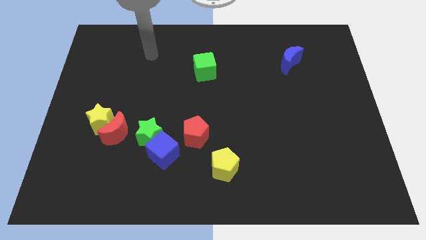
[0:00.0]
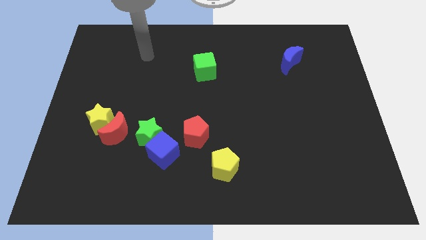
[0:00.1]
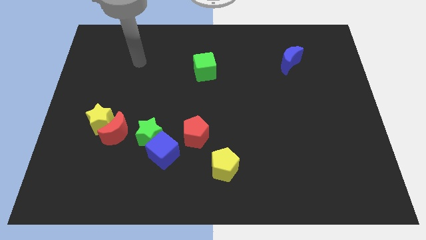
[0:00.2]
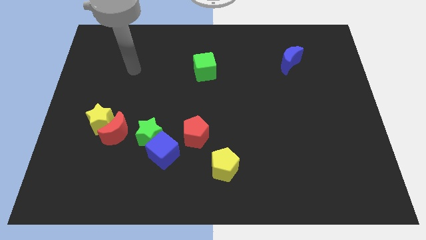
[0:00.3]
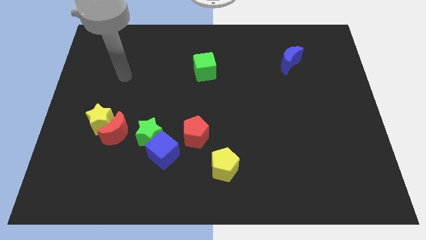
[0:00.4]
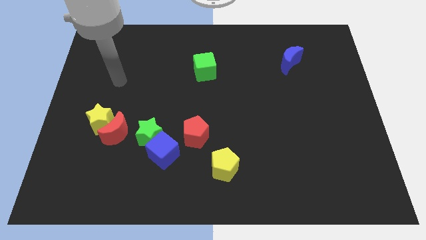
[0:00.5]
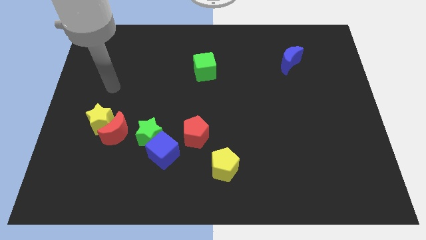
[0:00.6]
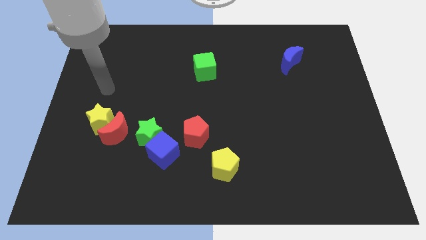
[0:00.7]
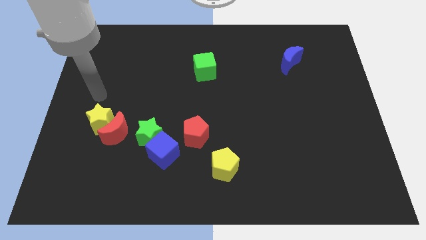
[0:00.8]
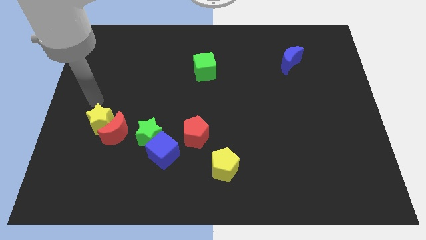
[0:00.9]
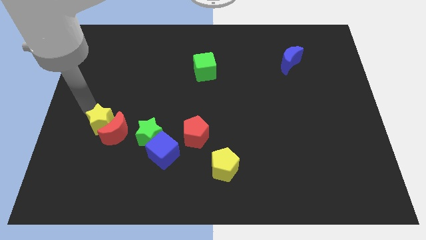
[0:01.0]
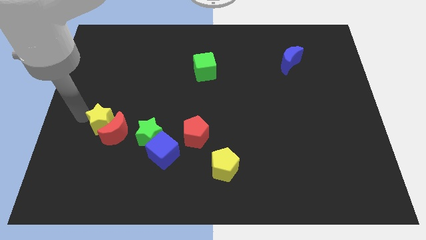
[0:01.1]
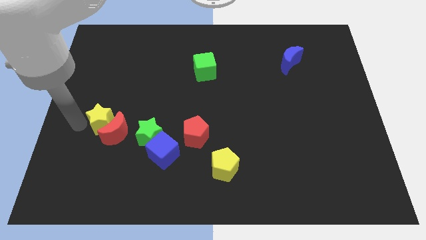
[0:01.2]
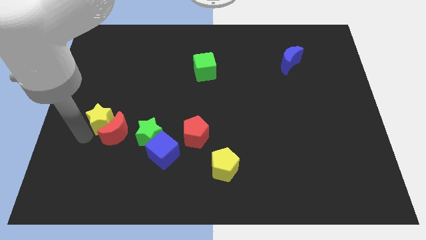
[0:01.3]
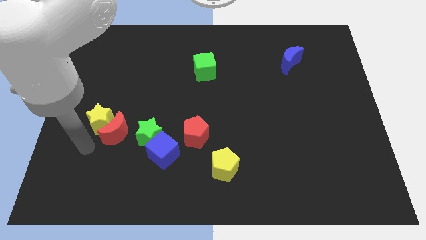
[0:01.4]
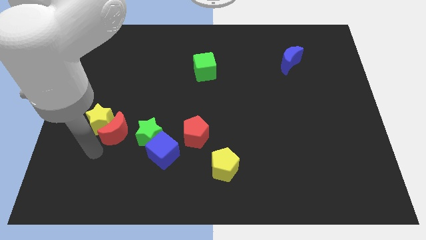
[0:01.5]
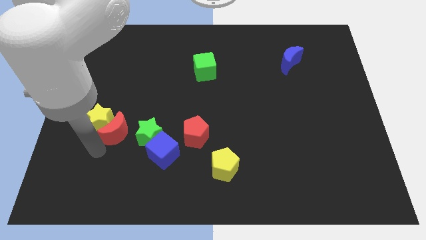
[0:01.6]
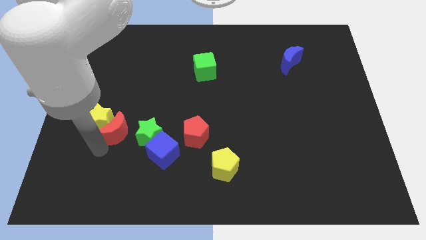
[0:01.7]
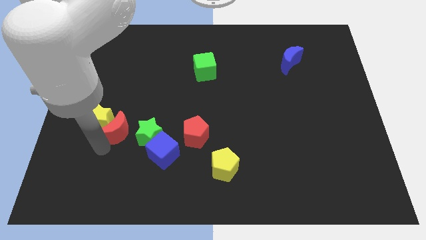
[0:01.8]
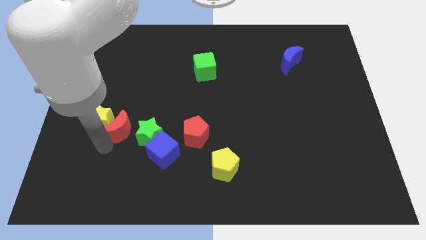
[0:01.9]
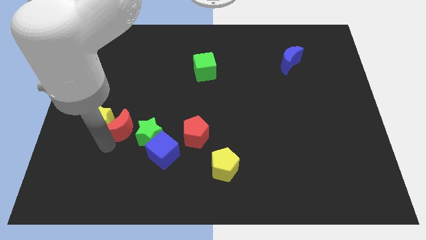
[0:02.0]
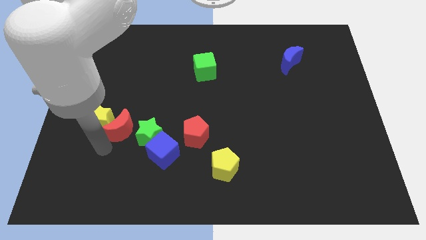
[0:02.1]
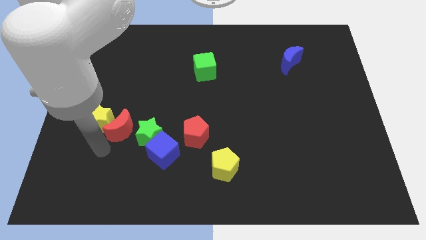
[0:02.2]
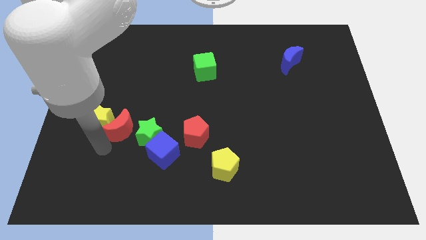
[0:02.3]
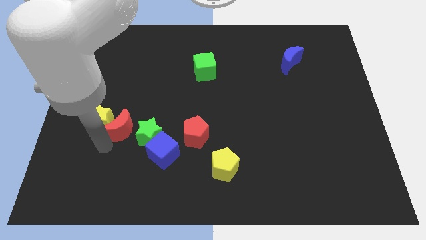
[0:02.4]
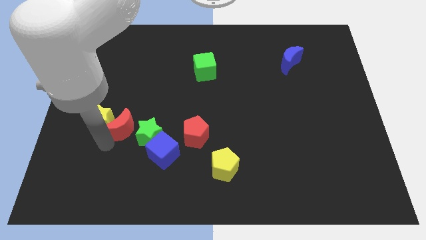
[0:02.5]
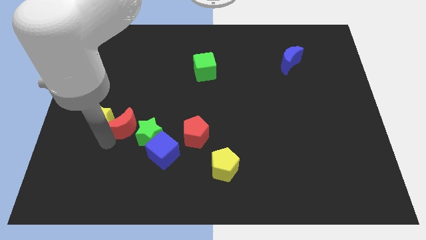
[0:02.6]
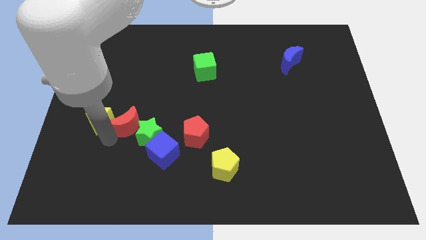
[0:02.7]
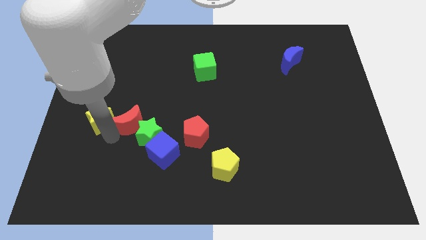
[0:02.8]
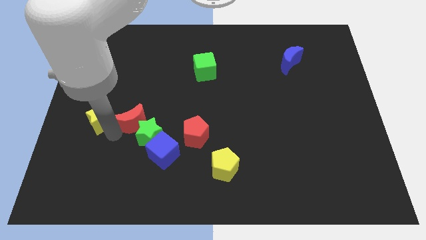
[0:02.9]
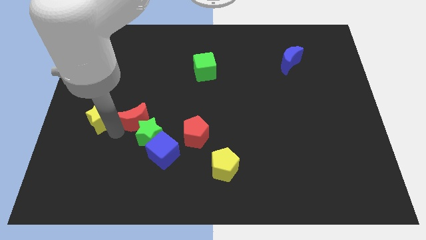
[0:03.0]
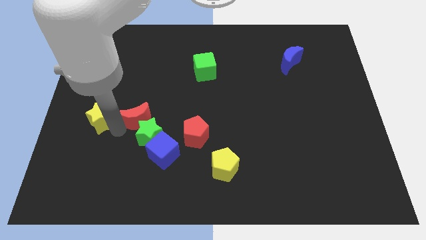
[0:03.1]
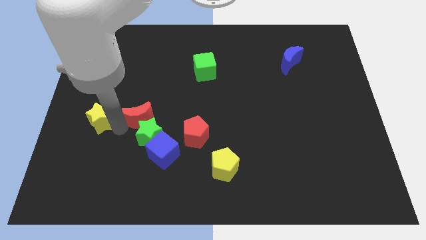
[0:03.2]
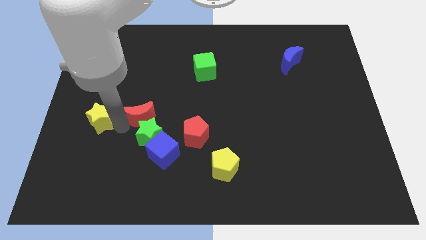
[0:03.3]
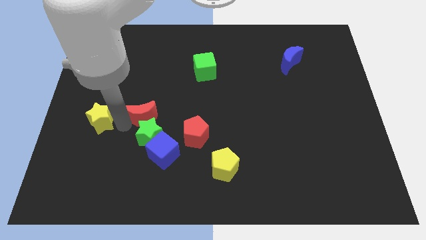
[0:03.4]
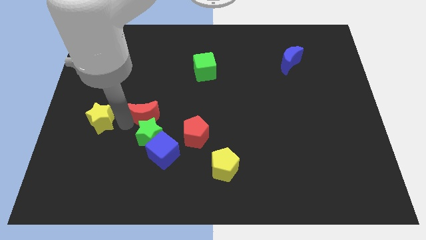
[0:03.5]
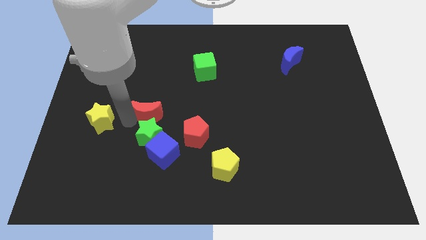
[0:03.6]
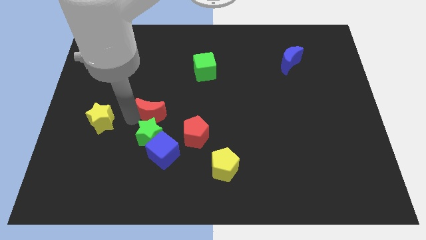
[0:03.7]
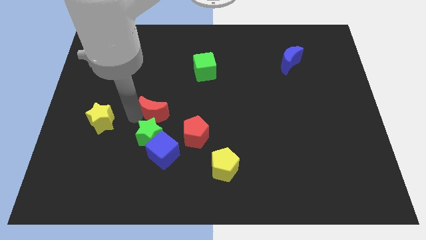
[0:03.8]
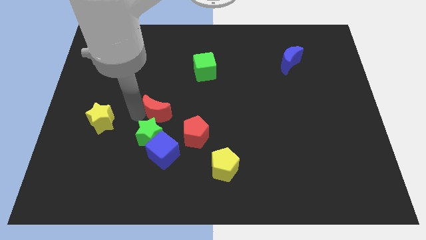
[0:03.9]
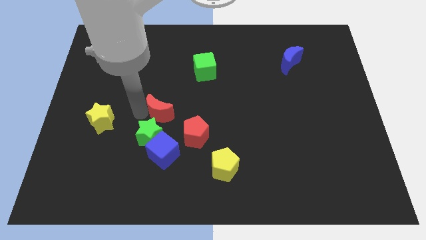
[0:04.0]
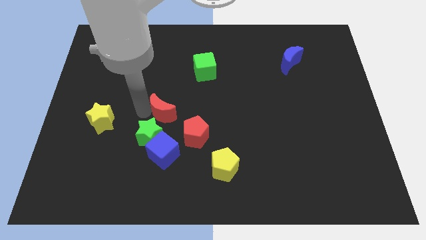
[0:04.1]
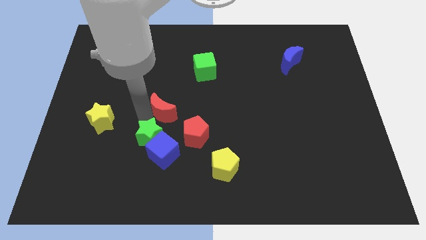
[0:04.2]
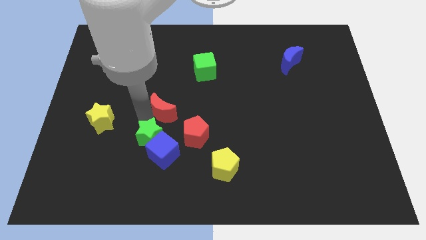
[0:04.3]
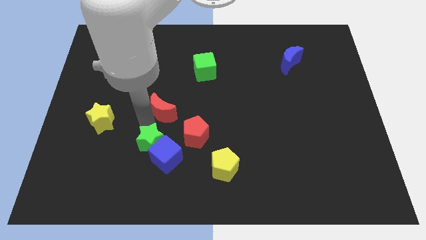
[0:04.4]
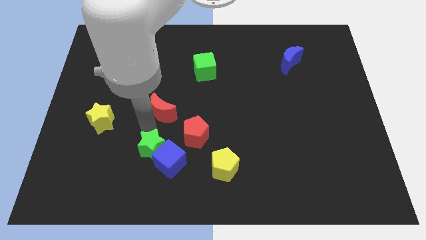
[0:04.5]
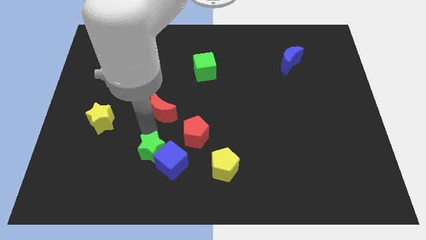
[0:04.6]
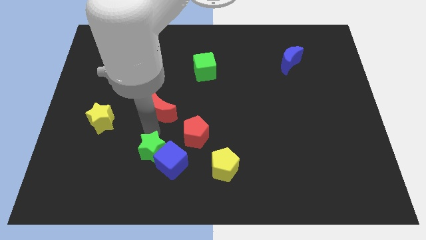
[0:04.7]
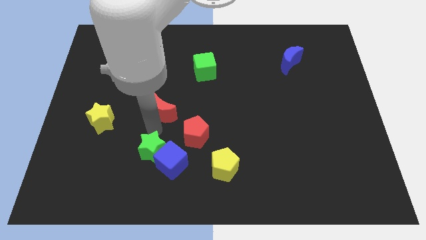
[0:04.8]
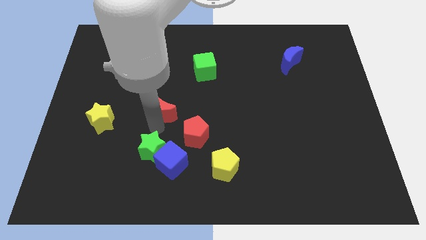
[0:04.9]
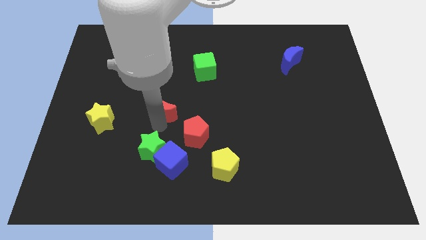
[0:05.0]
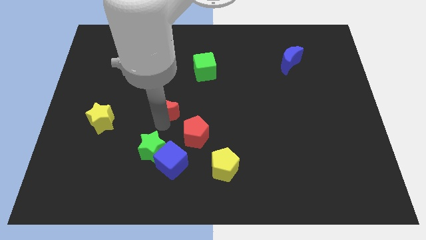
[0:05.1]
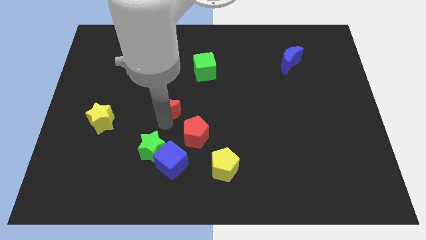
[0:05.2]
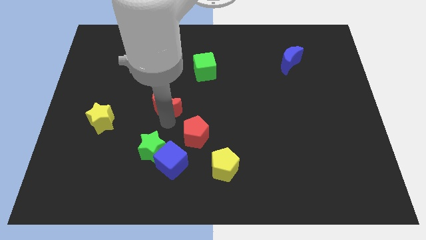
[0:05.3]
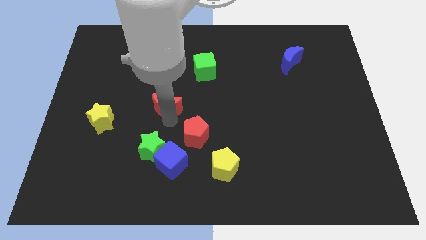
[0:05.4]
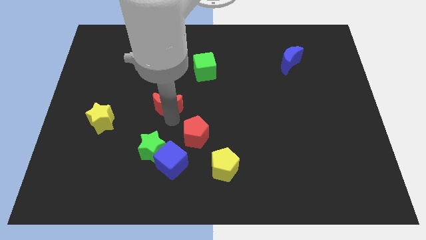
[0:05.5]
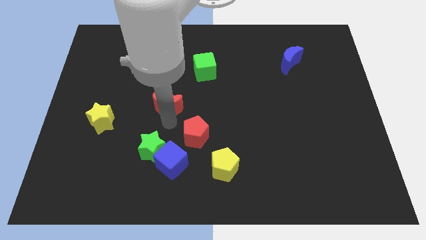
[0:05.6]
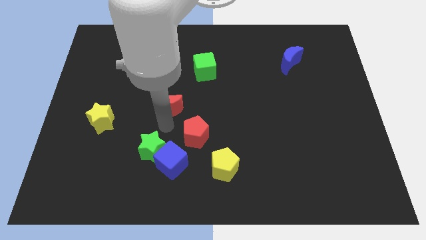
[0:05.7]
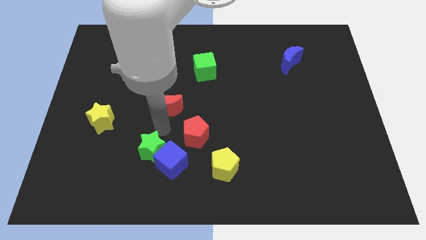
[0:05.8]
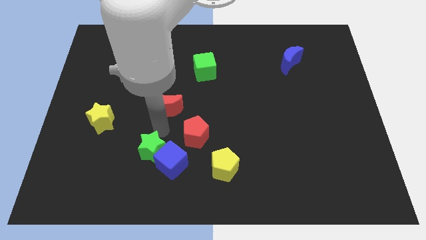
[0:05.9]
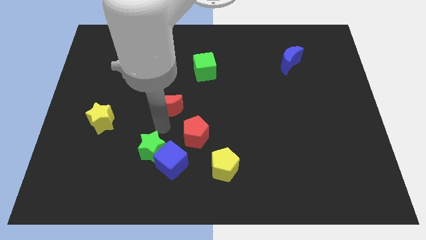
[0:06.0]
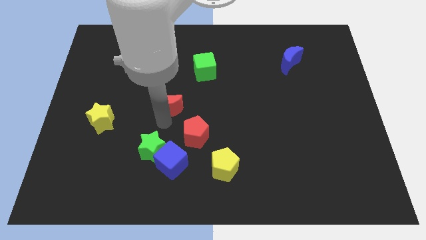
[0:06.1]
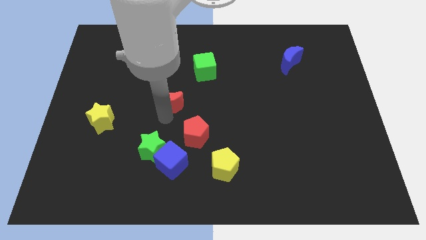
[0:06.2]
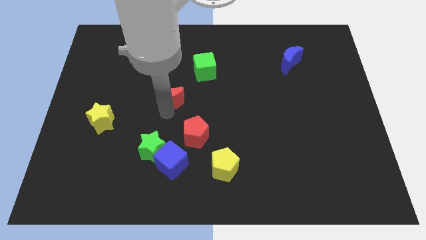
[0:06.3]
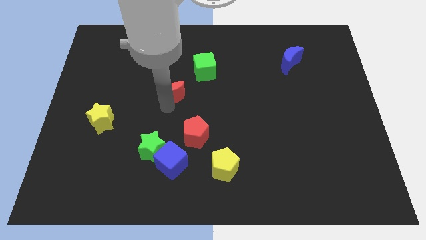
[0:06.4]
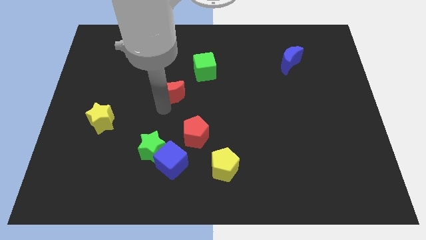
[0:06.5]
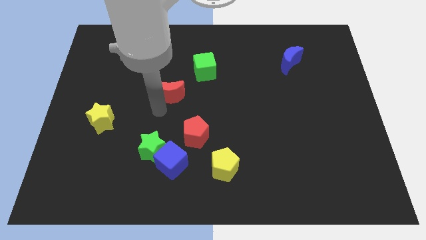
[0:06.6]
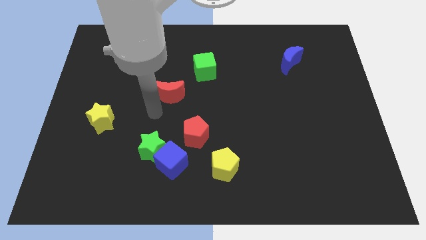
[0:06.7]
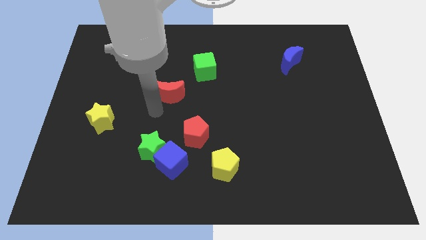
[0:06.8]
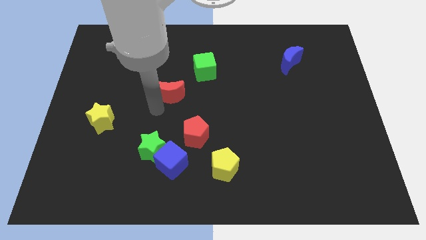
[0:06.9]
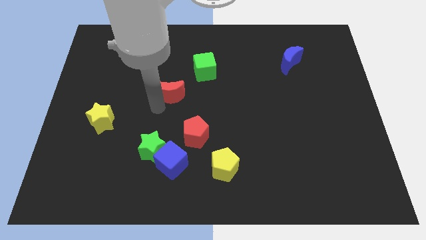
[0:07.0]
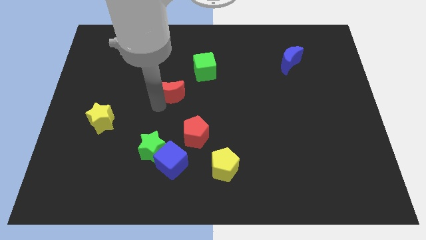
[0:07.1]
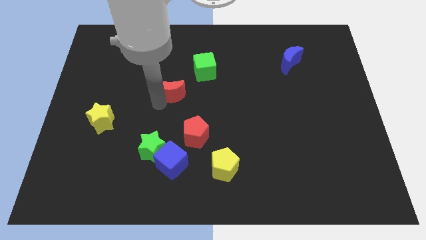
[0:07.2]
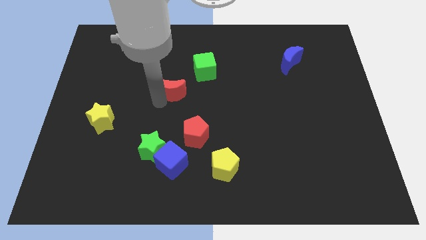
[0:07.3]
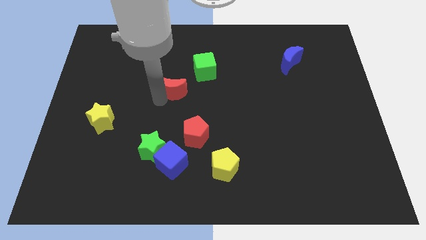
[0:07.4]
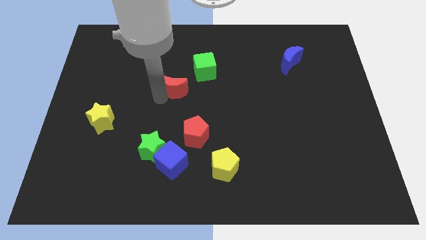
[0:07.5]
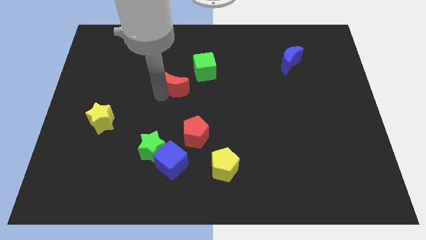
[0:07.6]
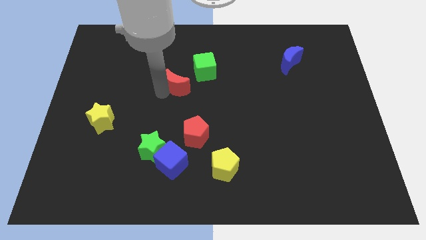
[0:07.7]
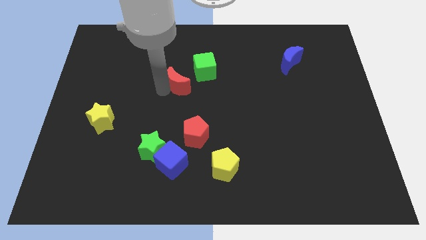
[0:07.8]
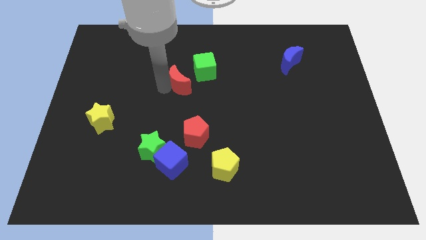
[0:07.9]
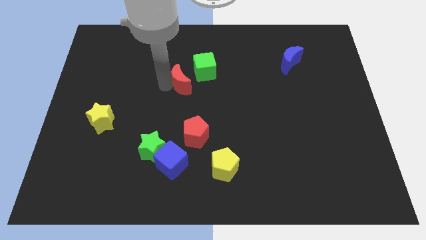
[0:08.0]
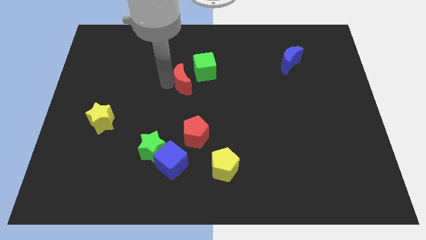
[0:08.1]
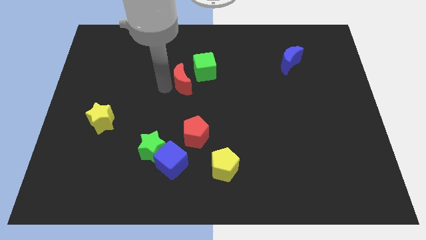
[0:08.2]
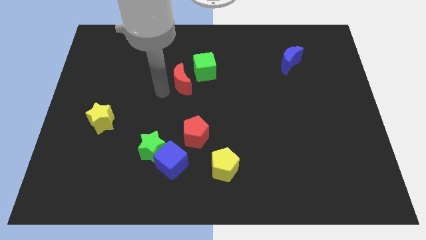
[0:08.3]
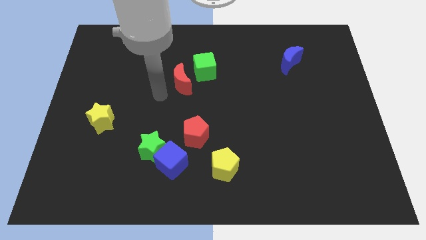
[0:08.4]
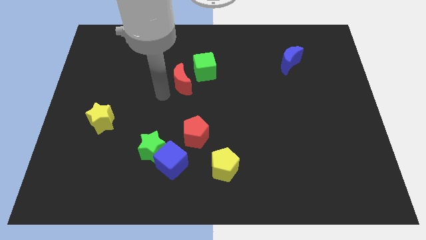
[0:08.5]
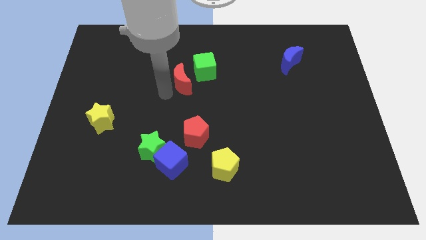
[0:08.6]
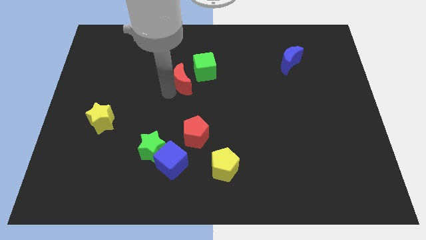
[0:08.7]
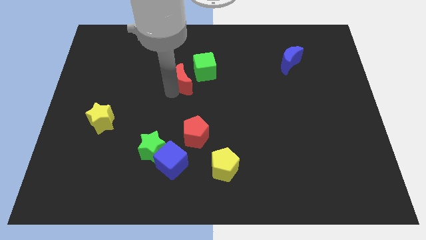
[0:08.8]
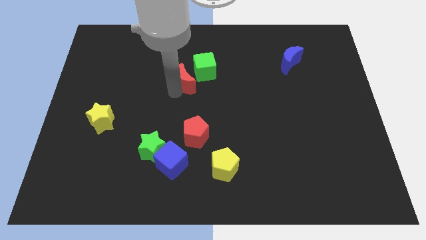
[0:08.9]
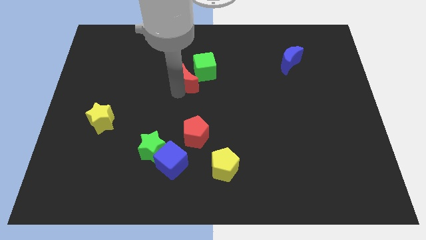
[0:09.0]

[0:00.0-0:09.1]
move the red moon close to the green cube
